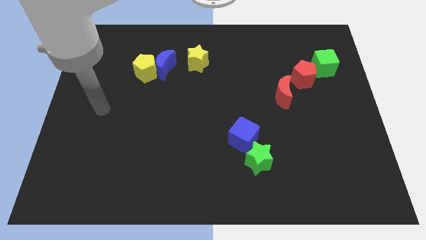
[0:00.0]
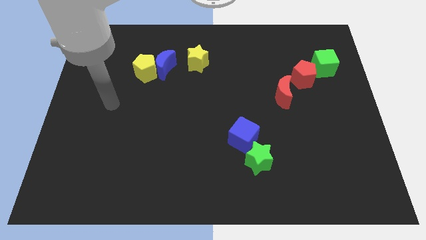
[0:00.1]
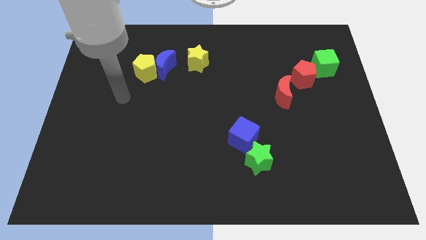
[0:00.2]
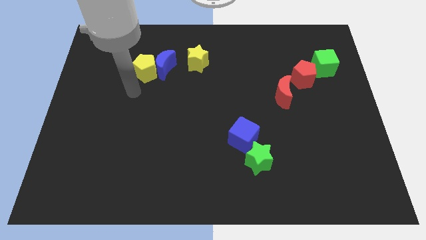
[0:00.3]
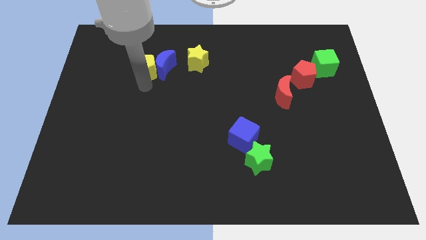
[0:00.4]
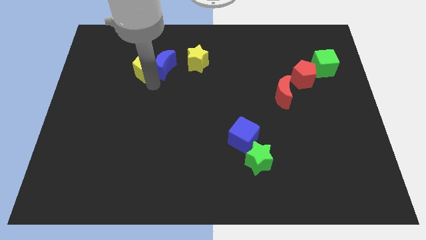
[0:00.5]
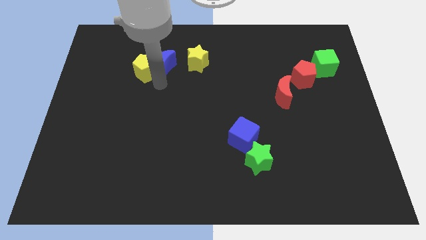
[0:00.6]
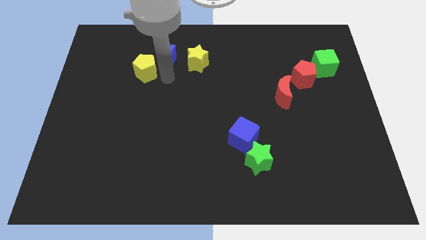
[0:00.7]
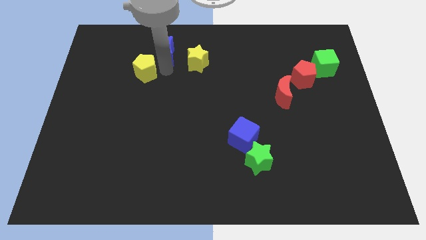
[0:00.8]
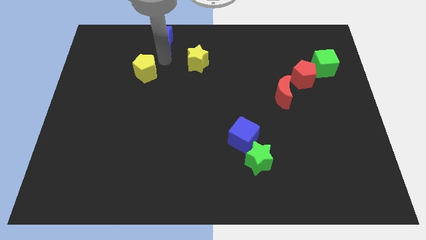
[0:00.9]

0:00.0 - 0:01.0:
move the yellow pentagon away from the blue moon

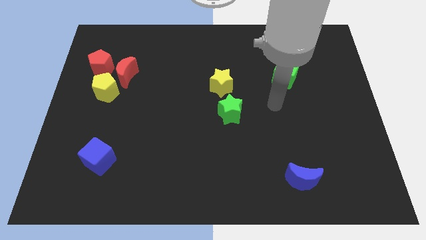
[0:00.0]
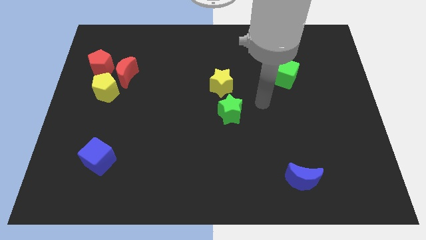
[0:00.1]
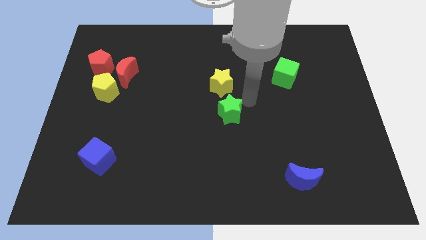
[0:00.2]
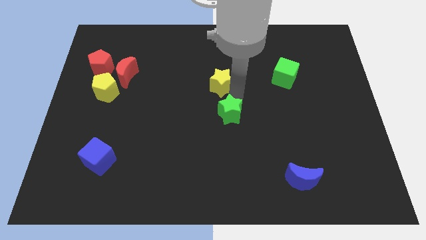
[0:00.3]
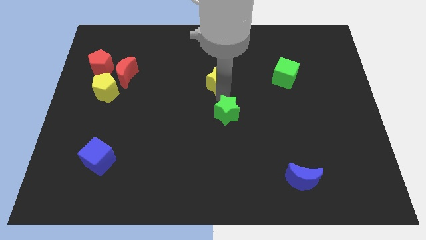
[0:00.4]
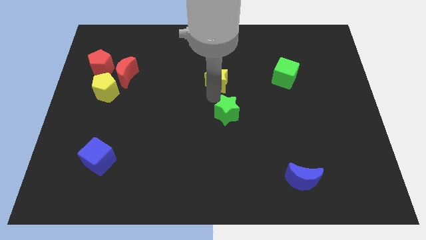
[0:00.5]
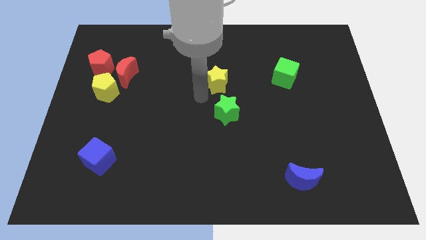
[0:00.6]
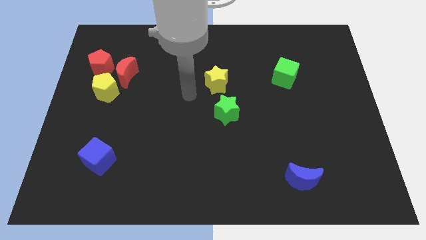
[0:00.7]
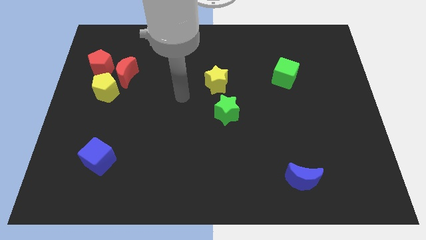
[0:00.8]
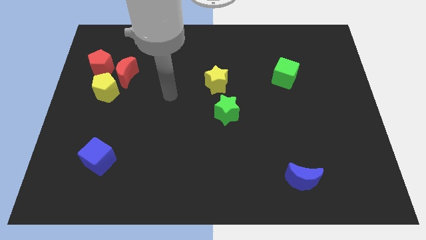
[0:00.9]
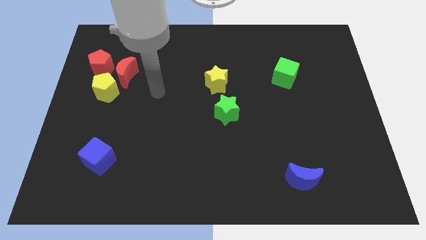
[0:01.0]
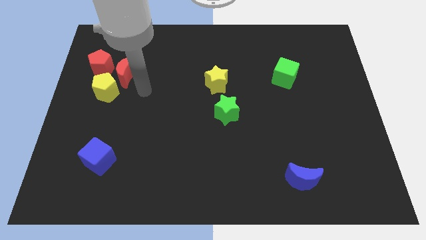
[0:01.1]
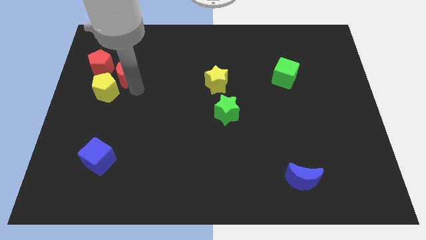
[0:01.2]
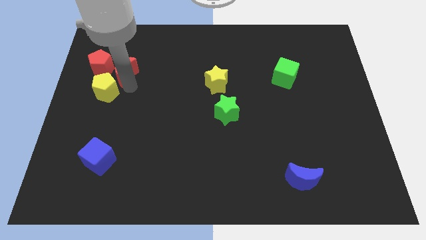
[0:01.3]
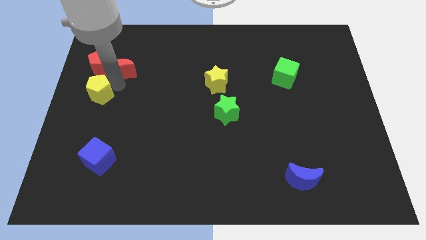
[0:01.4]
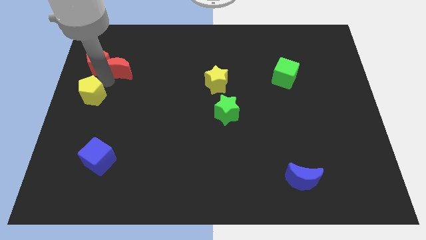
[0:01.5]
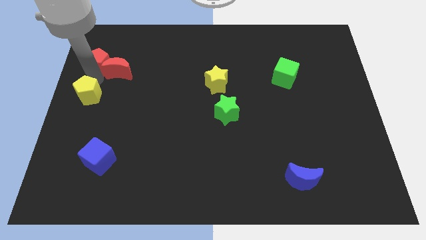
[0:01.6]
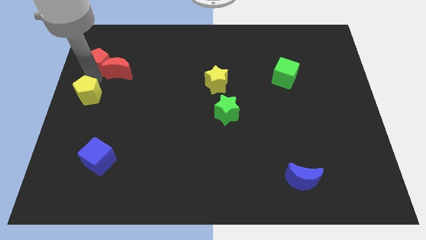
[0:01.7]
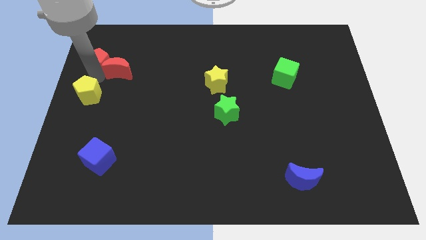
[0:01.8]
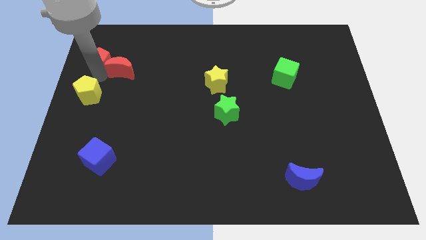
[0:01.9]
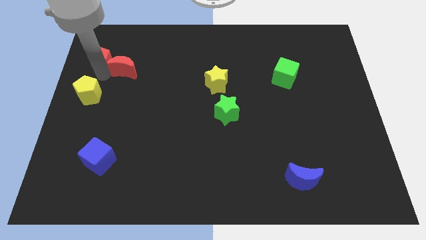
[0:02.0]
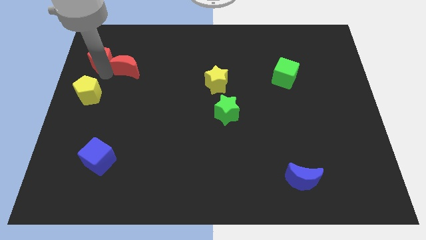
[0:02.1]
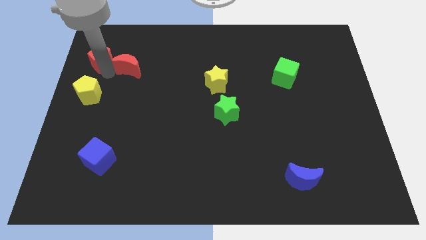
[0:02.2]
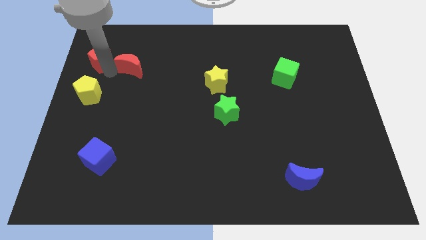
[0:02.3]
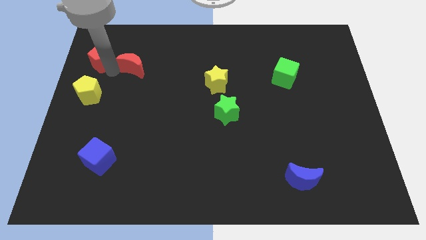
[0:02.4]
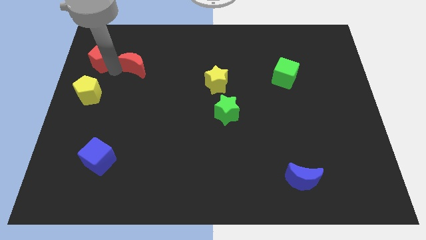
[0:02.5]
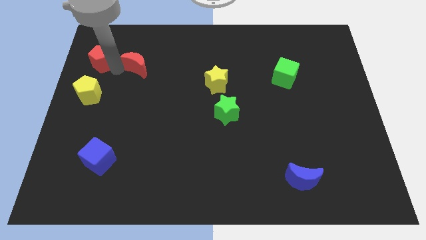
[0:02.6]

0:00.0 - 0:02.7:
move the red moon away from the yellow pentagon and red pentagon

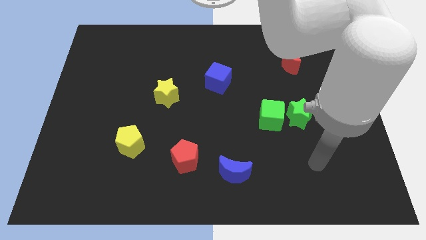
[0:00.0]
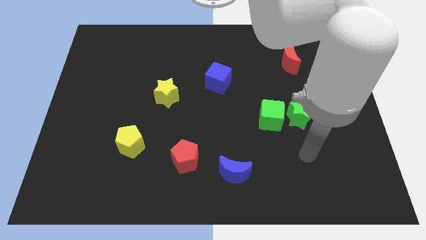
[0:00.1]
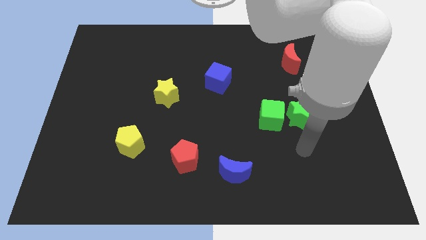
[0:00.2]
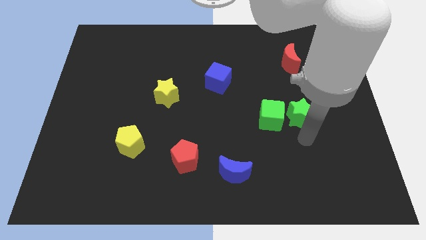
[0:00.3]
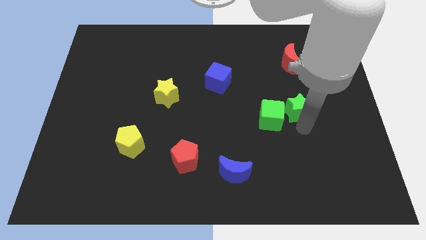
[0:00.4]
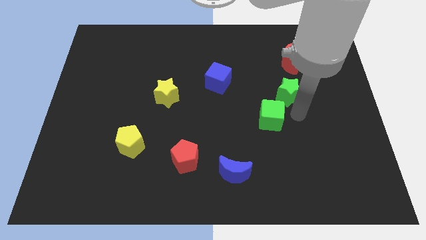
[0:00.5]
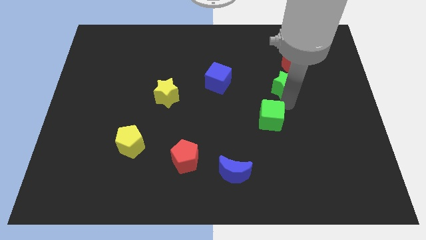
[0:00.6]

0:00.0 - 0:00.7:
pull the green cube apart from the green star

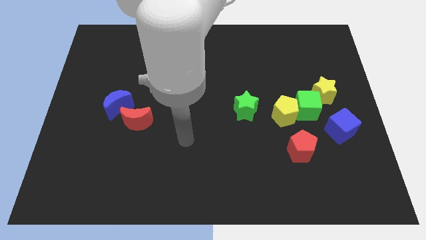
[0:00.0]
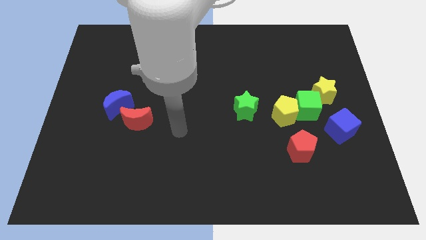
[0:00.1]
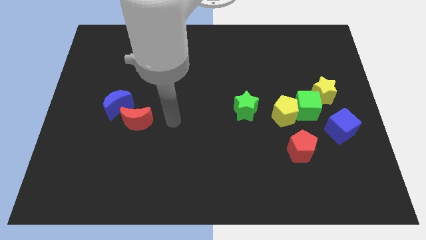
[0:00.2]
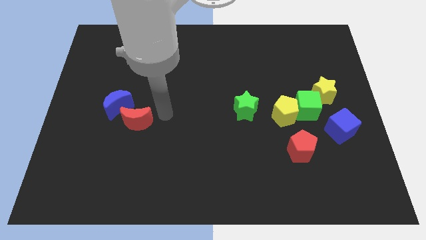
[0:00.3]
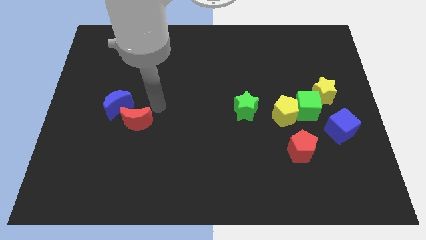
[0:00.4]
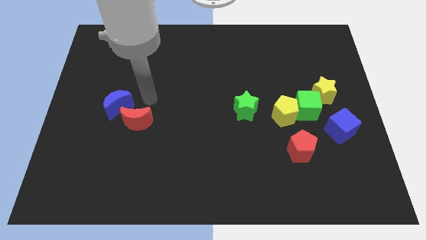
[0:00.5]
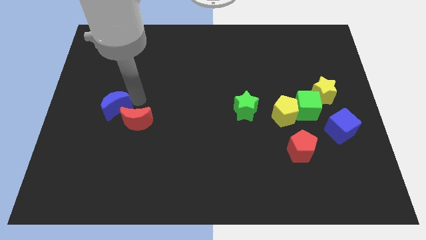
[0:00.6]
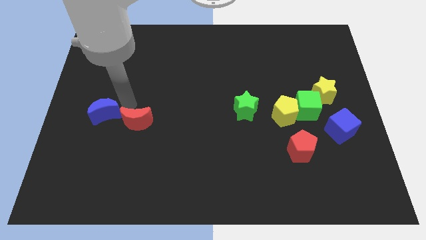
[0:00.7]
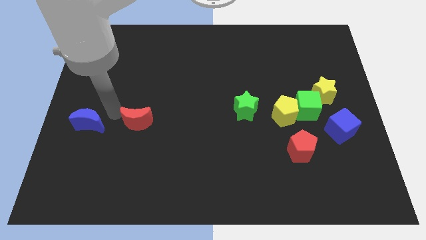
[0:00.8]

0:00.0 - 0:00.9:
move the red moon away from the blue moon

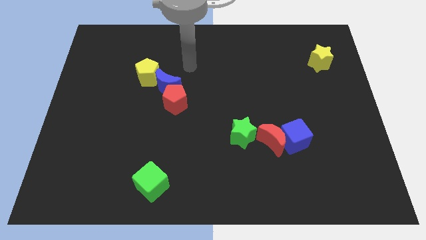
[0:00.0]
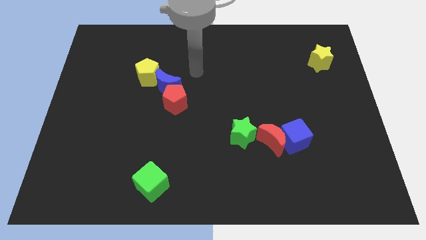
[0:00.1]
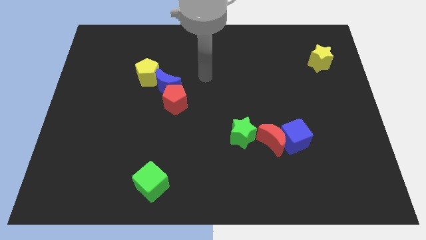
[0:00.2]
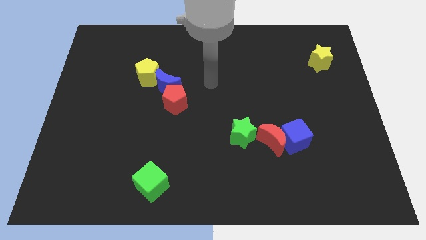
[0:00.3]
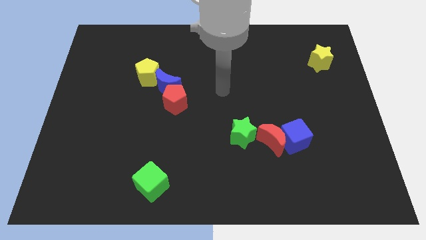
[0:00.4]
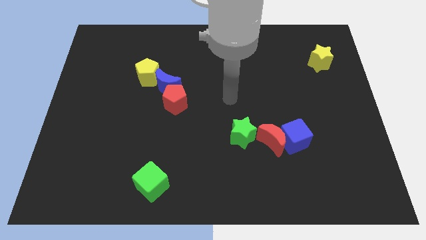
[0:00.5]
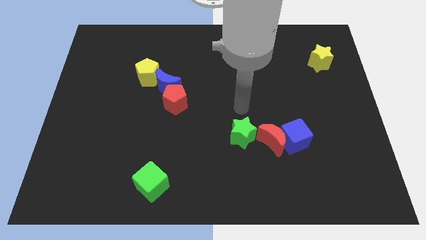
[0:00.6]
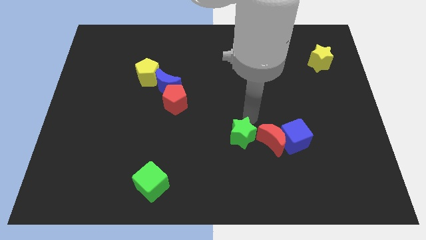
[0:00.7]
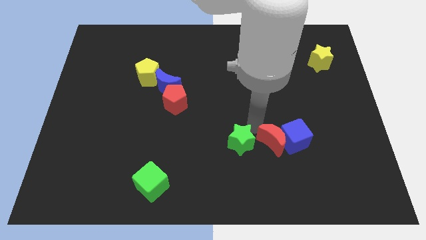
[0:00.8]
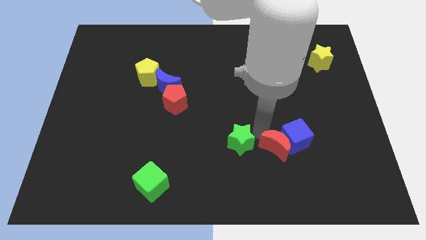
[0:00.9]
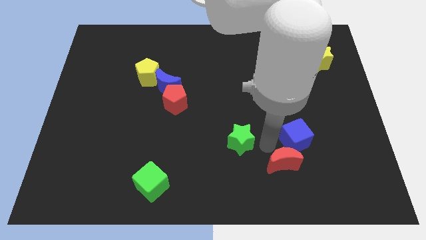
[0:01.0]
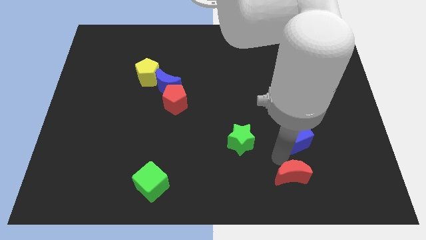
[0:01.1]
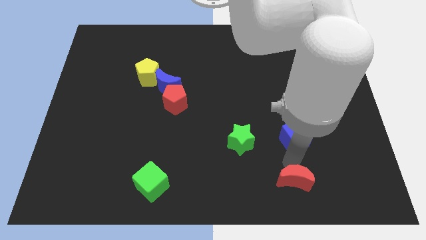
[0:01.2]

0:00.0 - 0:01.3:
move the blue cube away from the red moon

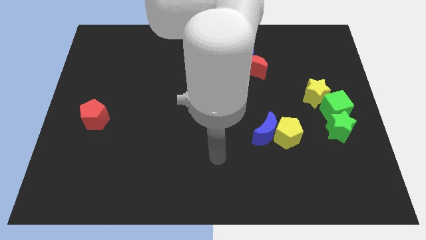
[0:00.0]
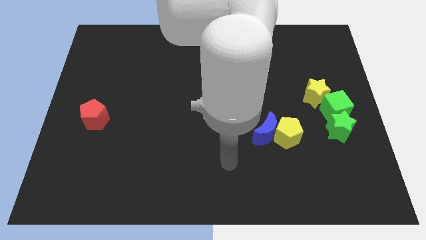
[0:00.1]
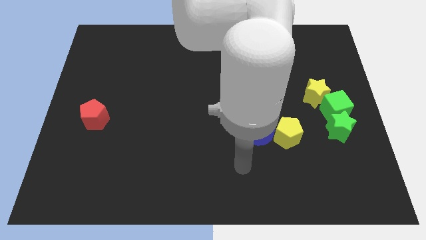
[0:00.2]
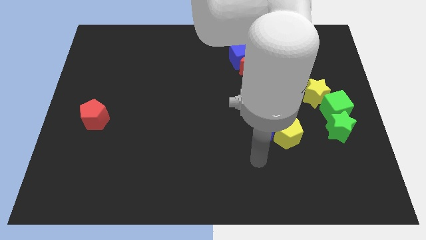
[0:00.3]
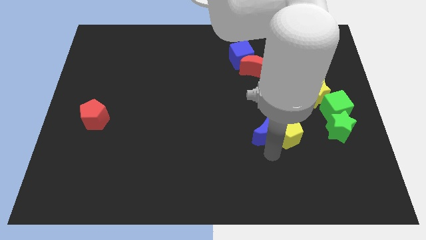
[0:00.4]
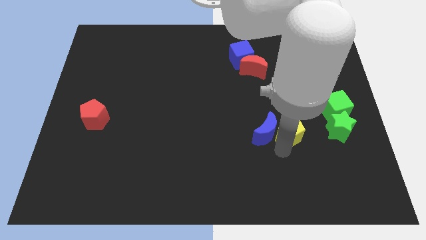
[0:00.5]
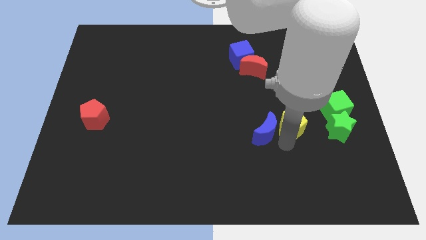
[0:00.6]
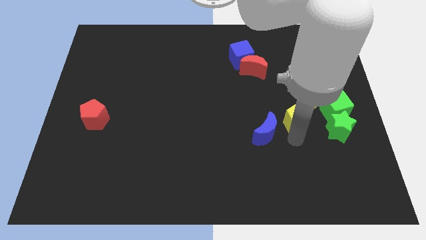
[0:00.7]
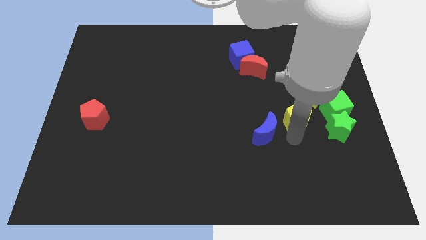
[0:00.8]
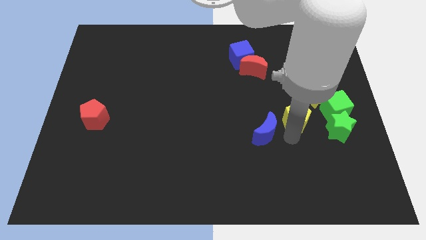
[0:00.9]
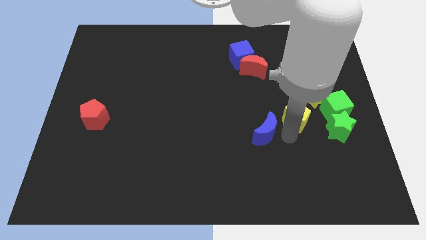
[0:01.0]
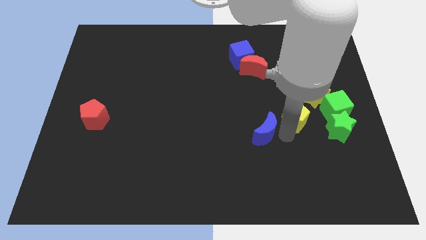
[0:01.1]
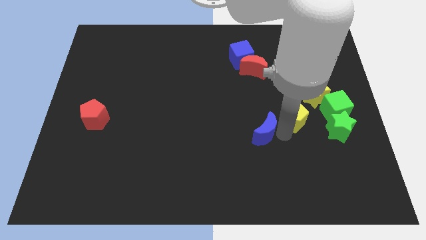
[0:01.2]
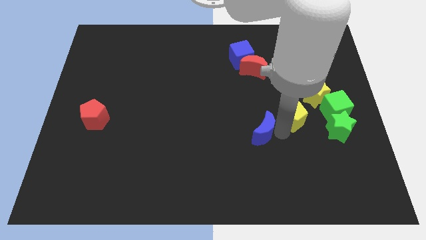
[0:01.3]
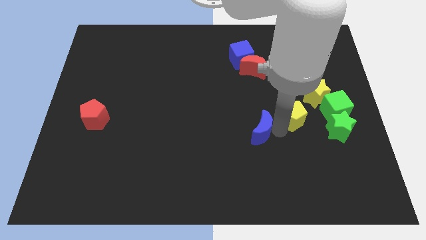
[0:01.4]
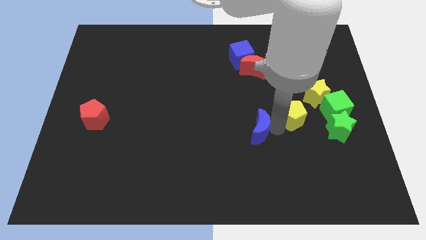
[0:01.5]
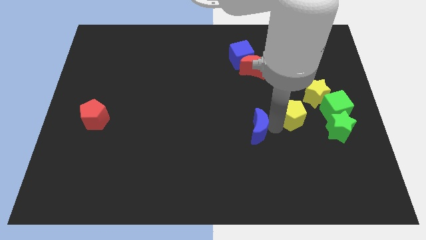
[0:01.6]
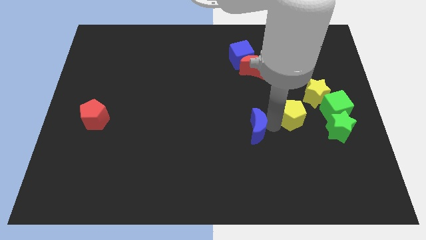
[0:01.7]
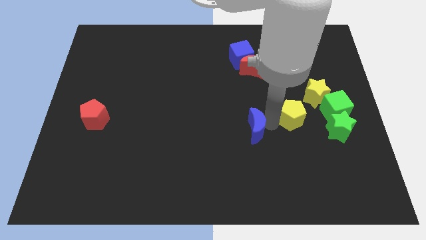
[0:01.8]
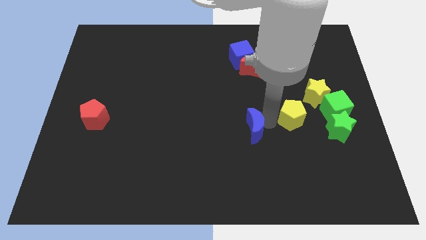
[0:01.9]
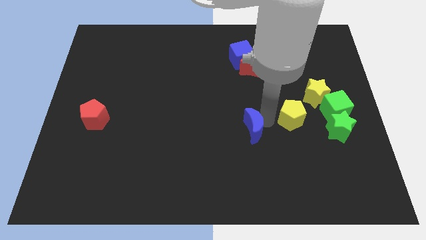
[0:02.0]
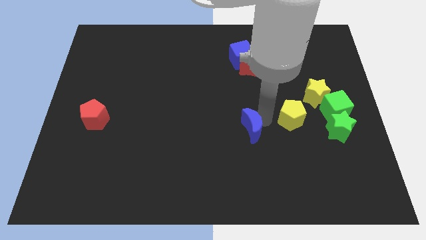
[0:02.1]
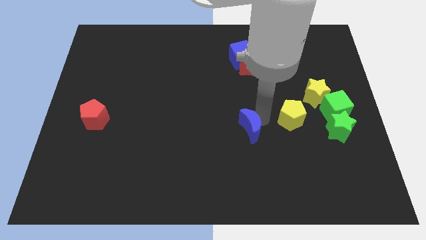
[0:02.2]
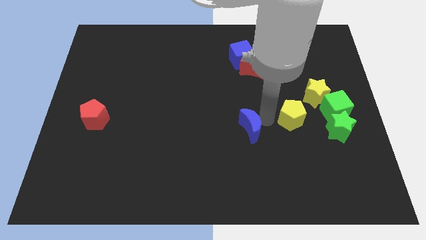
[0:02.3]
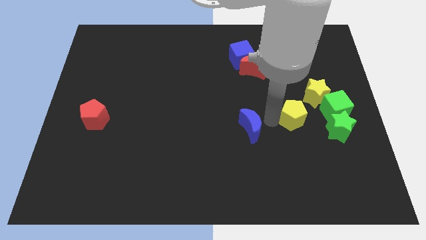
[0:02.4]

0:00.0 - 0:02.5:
move the blue moon away from the yellow pentagon

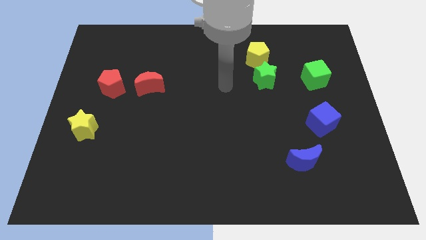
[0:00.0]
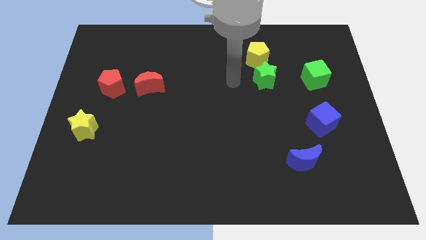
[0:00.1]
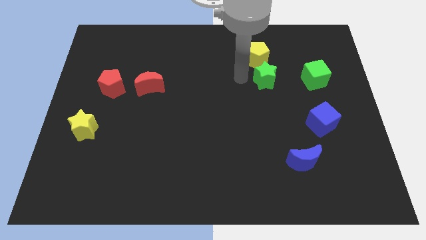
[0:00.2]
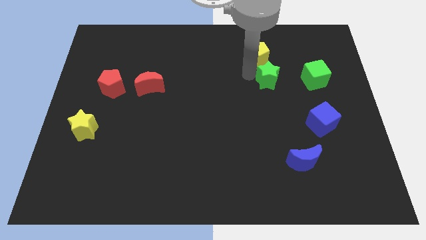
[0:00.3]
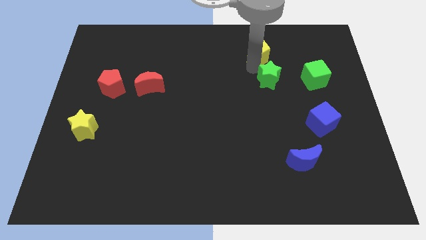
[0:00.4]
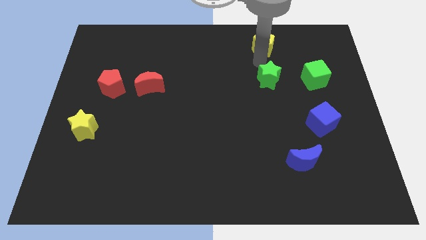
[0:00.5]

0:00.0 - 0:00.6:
move the green star away from the yellow pentagon
